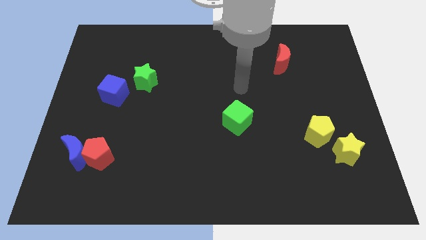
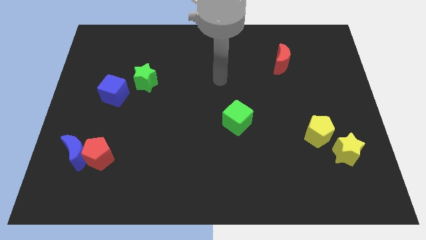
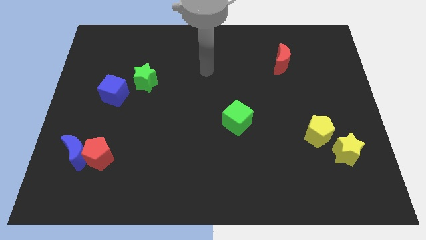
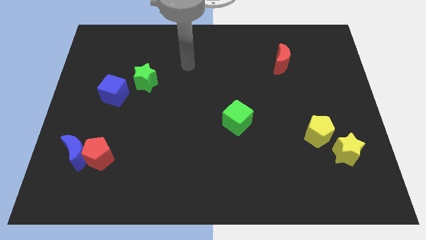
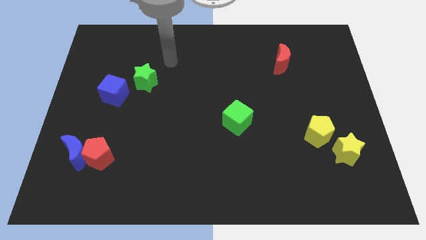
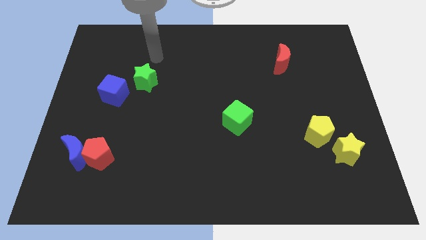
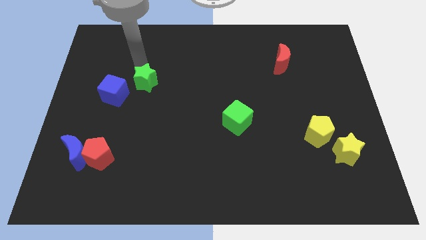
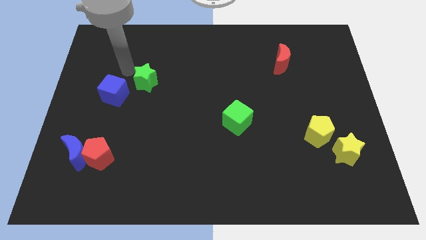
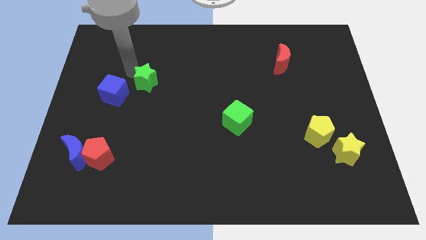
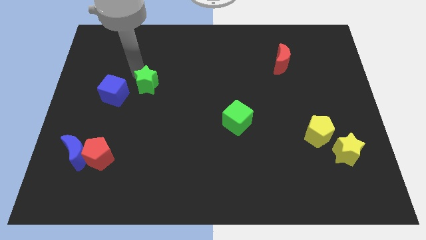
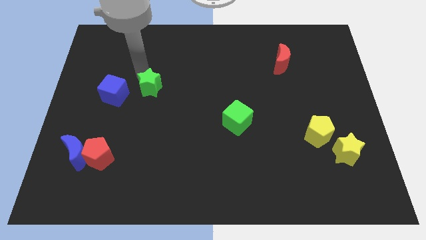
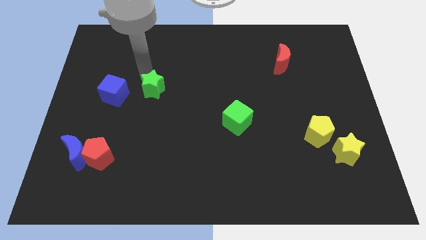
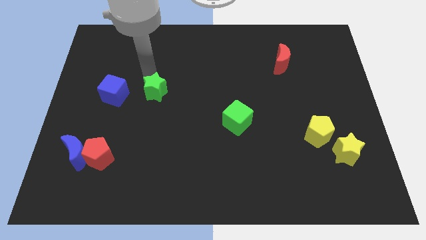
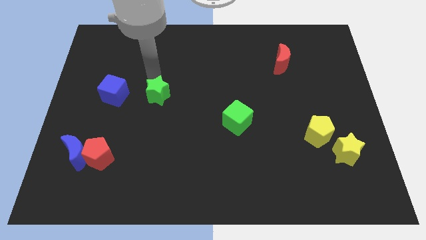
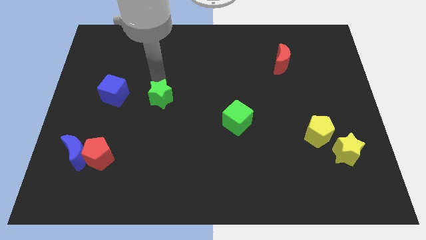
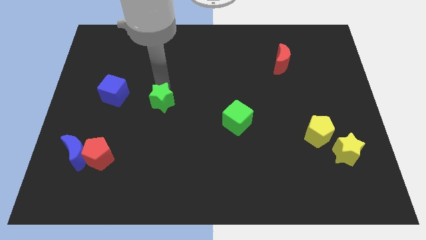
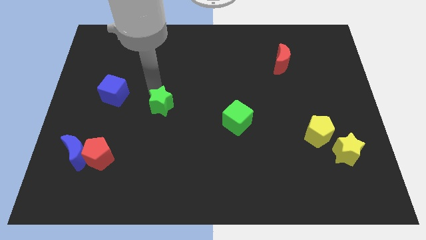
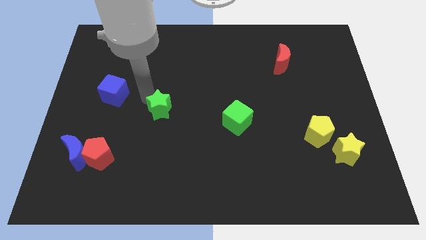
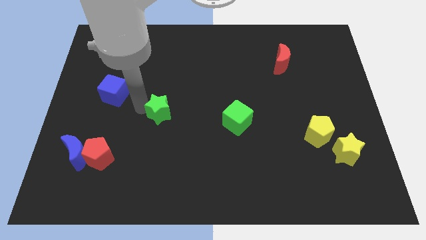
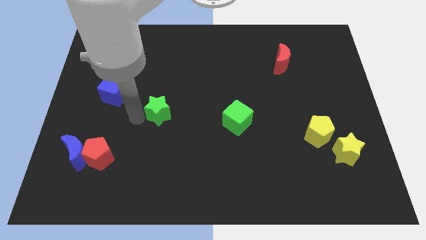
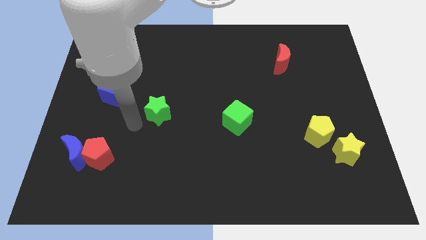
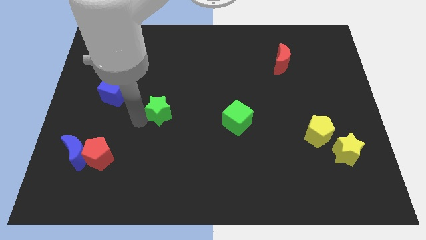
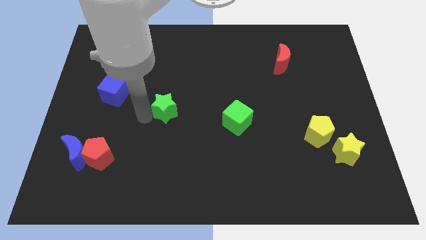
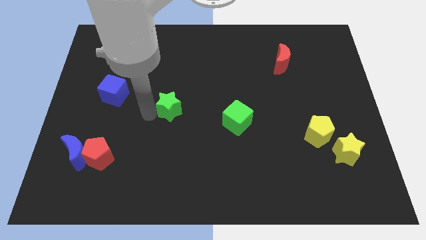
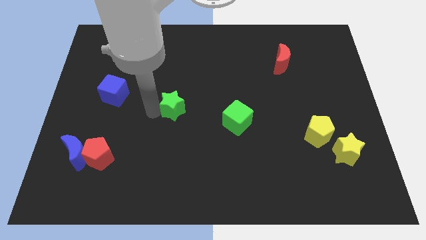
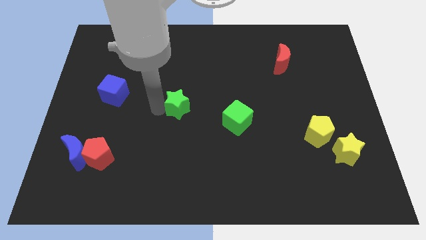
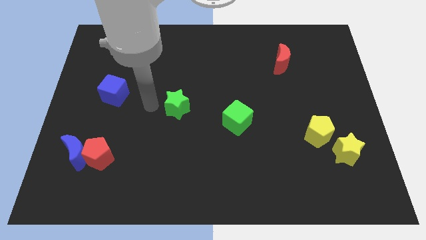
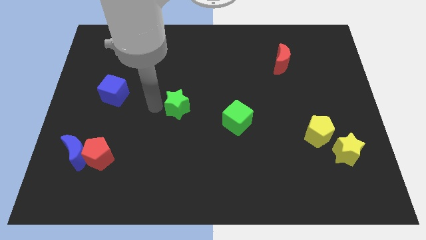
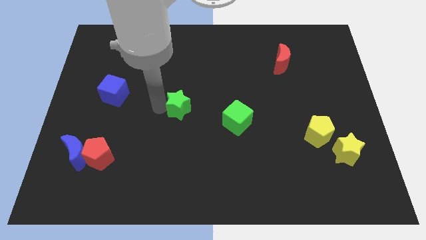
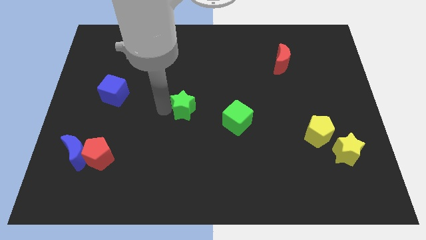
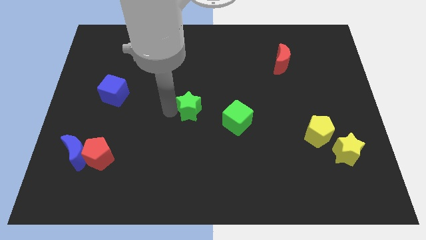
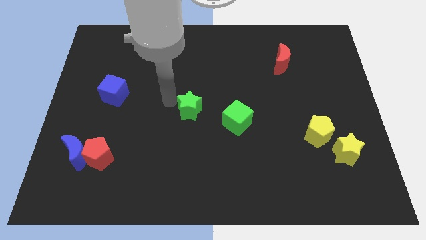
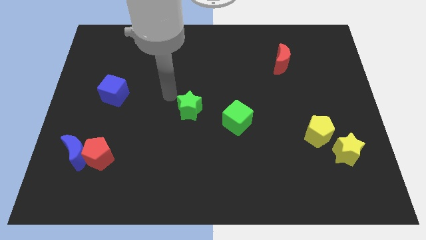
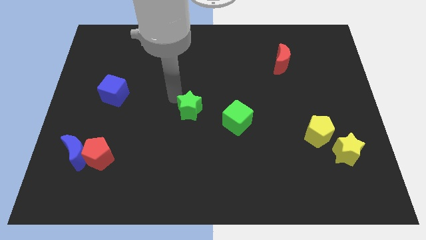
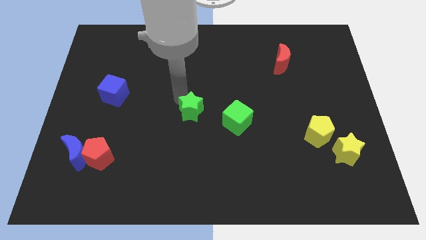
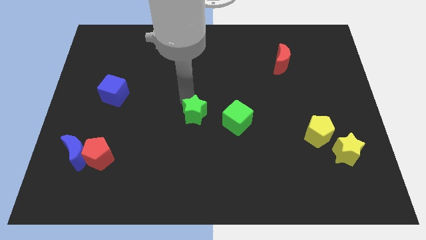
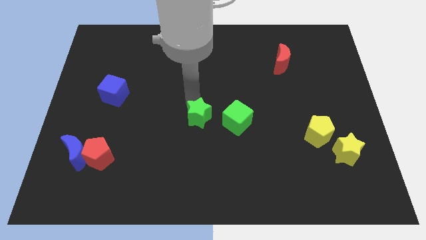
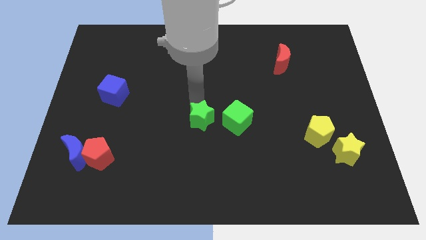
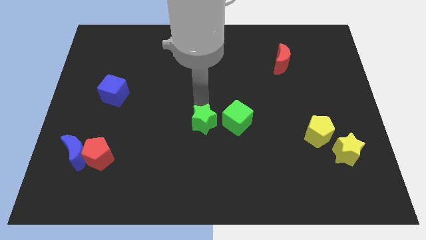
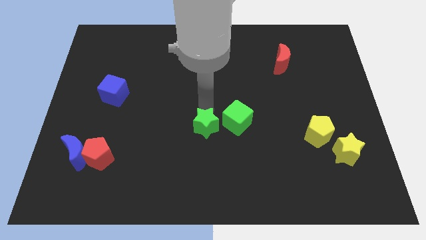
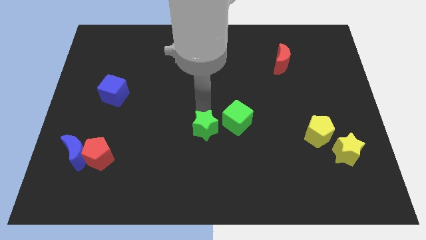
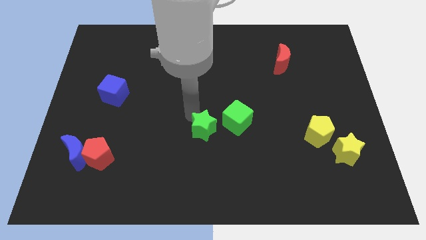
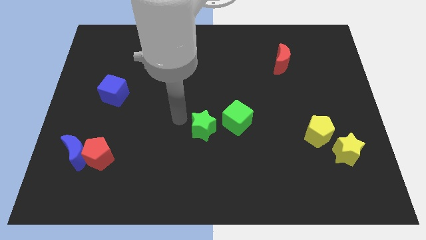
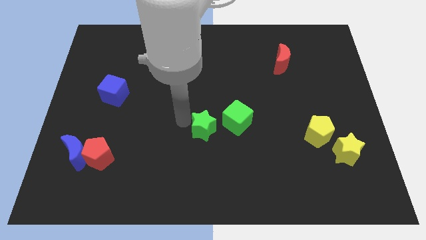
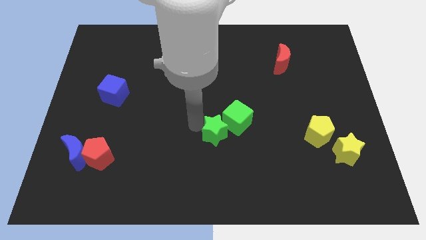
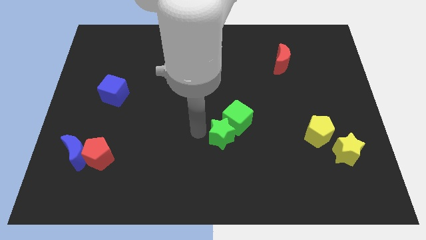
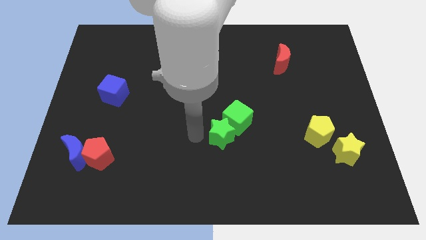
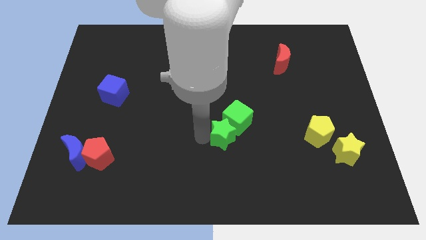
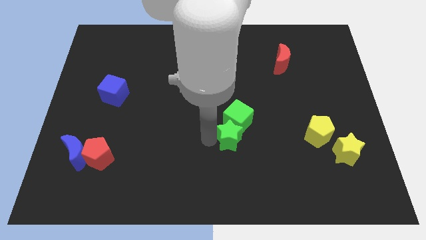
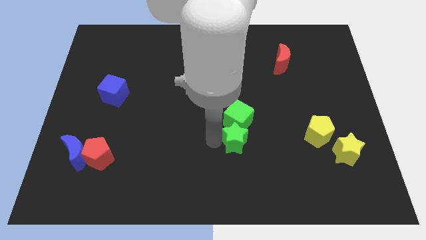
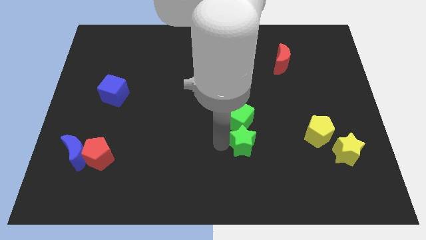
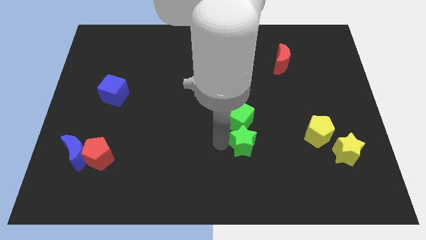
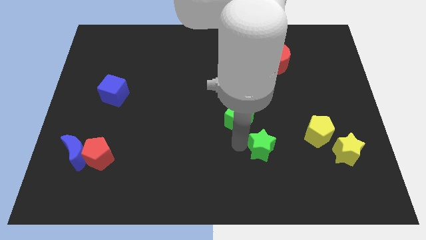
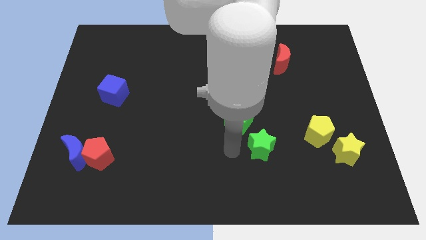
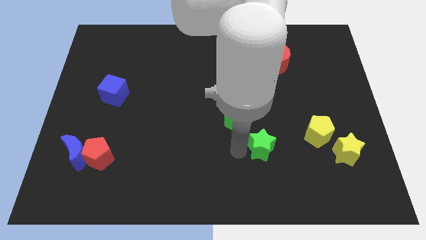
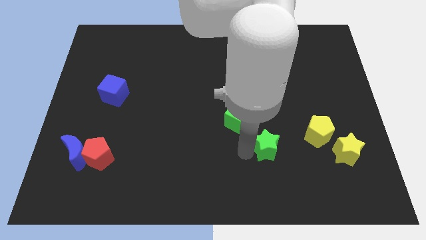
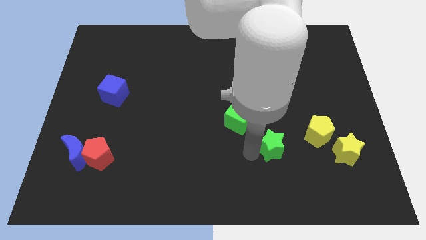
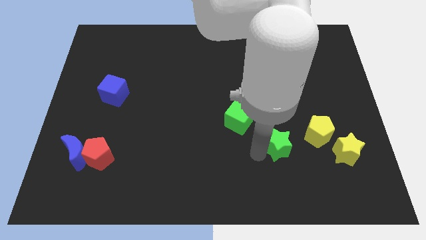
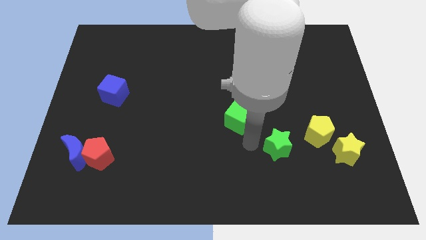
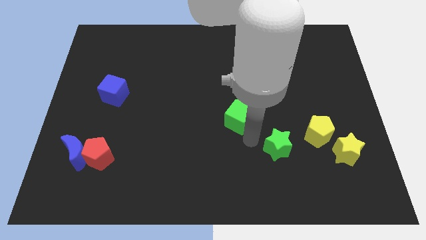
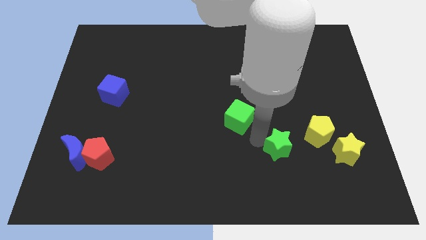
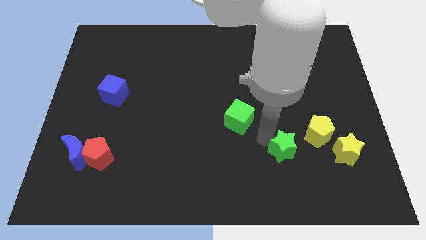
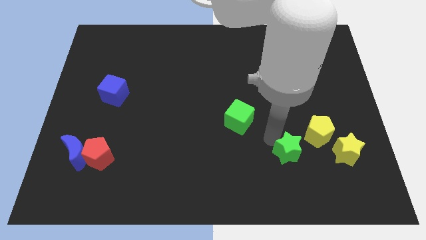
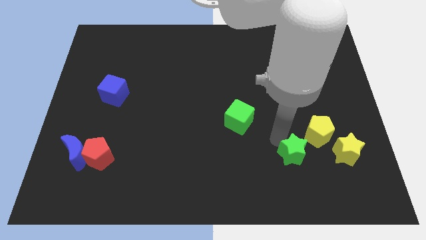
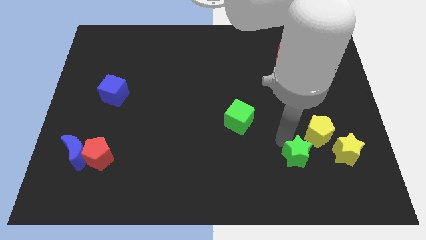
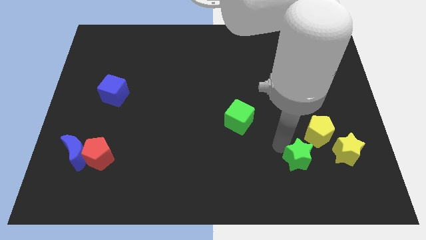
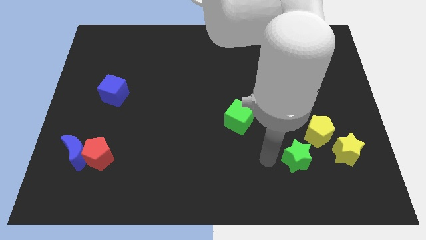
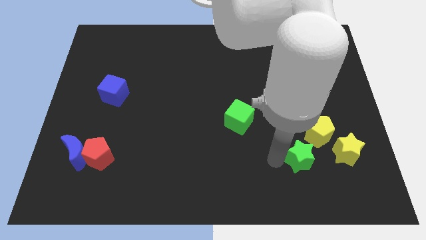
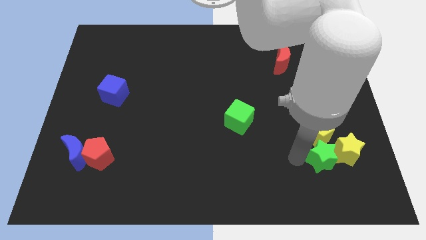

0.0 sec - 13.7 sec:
move the green star towards the yellow star

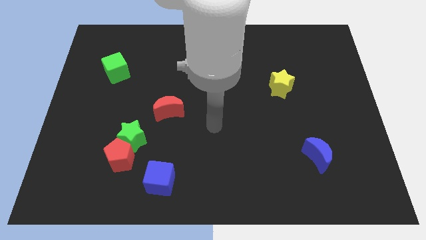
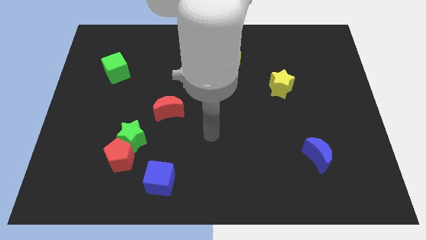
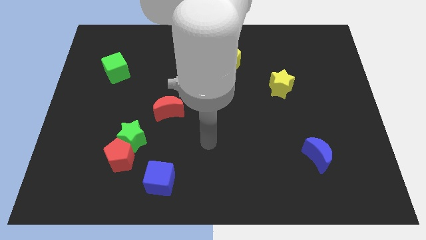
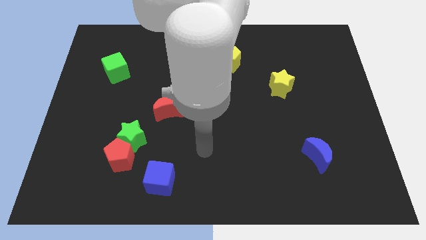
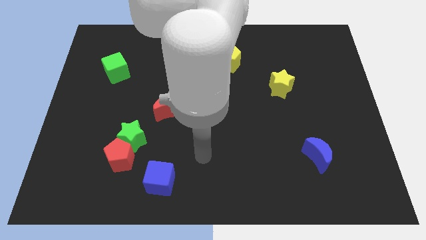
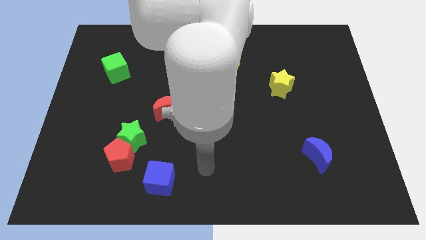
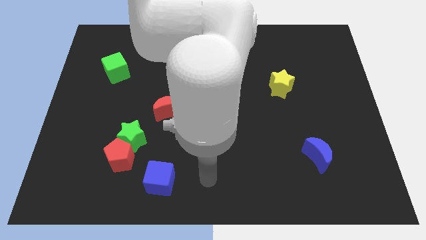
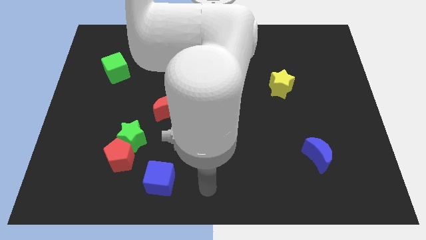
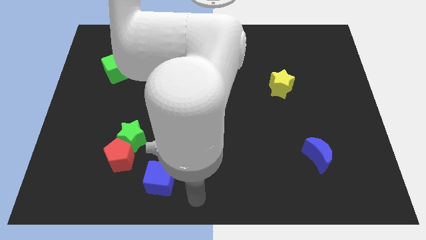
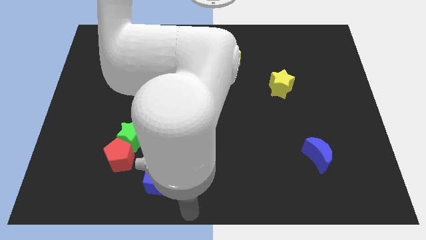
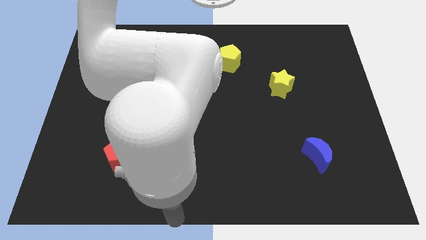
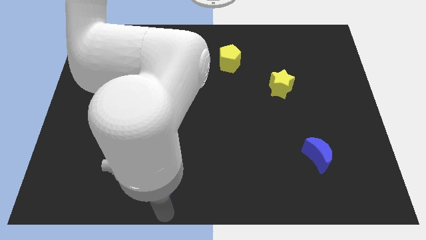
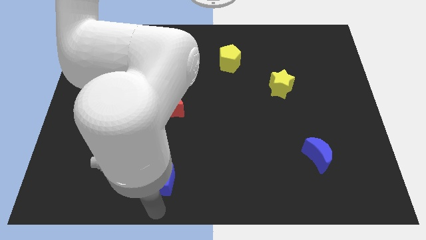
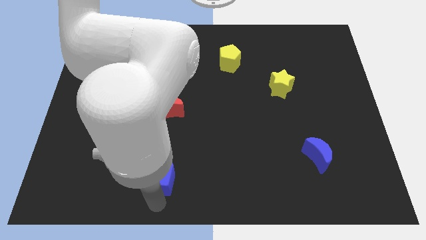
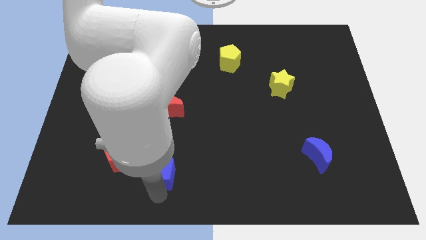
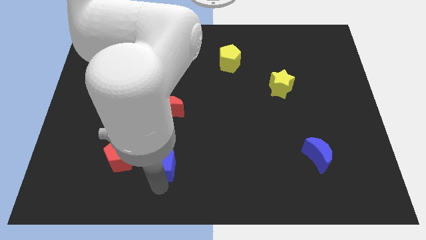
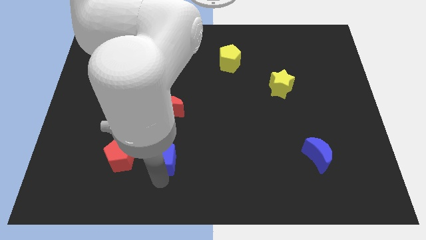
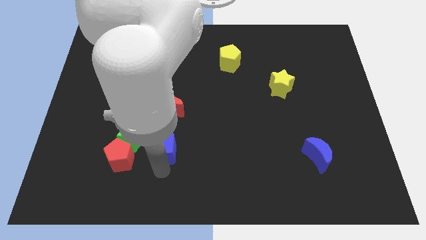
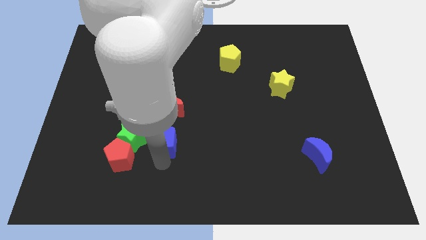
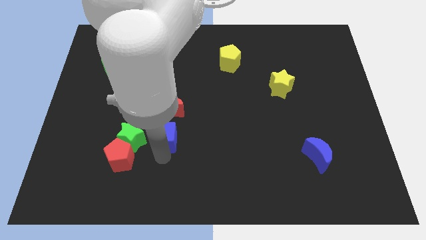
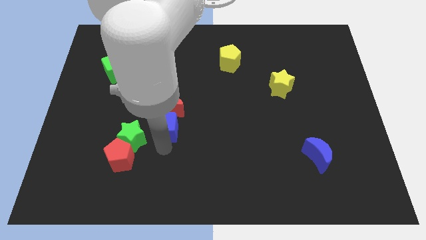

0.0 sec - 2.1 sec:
put the blue cube next to the red moon
